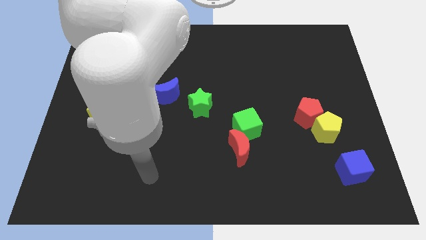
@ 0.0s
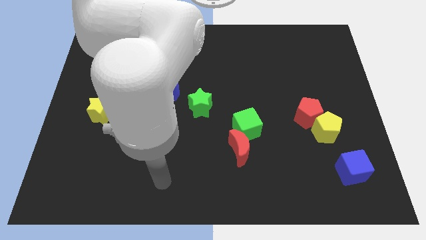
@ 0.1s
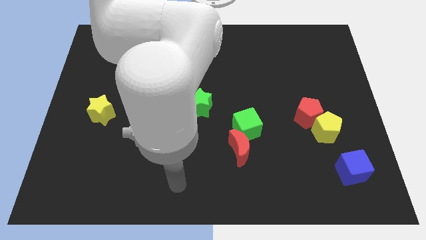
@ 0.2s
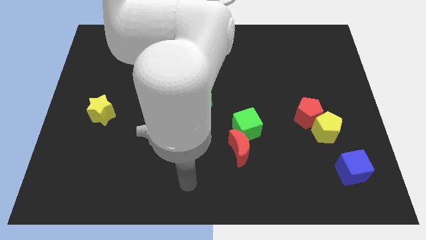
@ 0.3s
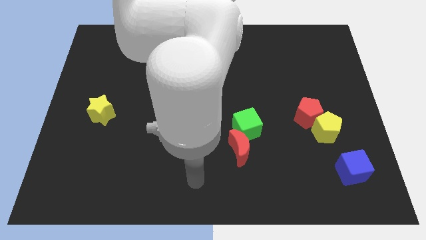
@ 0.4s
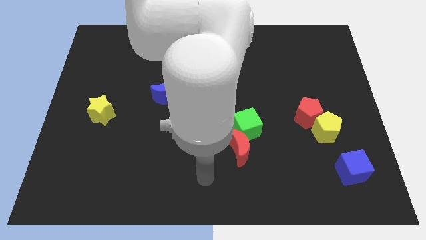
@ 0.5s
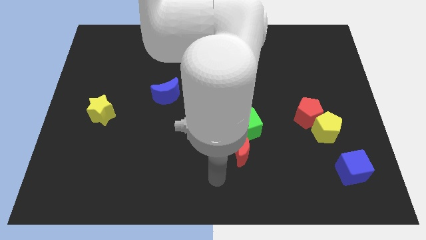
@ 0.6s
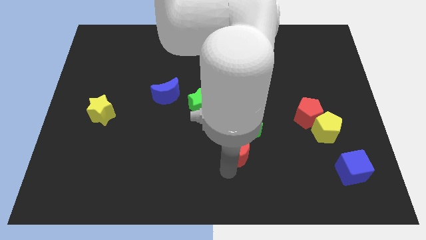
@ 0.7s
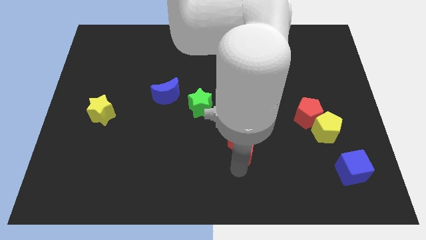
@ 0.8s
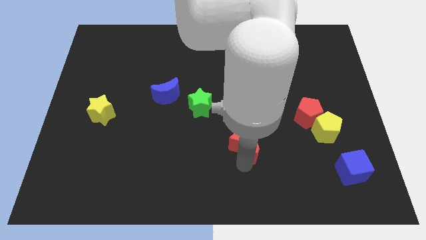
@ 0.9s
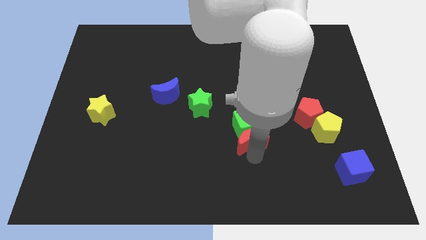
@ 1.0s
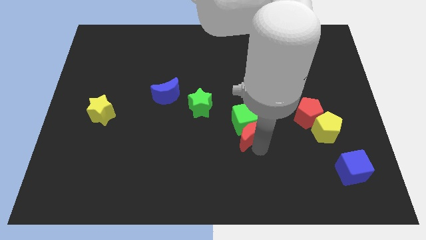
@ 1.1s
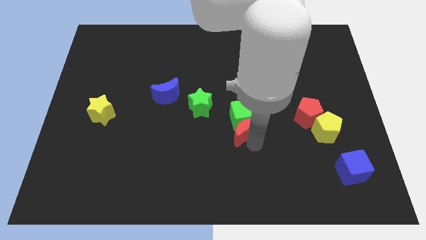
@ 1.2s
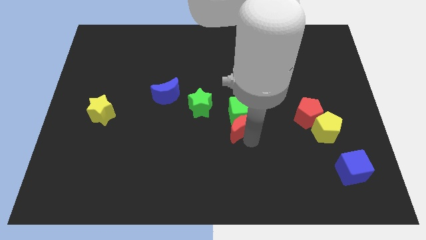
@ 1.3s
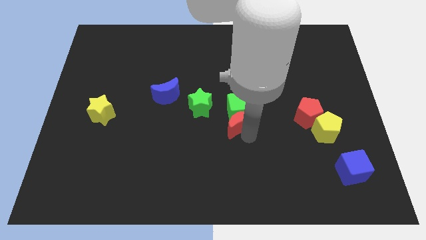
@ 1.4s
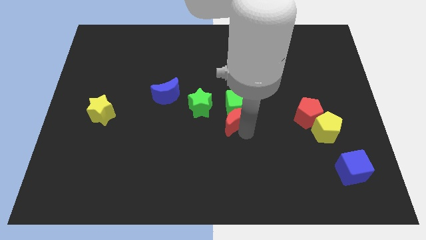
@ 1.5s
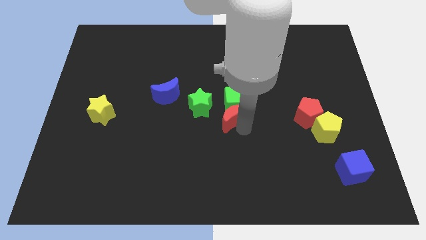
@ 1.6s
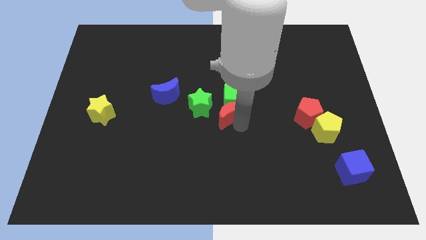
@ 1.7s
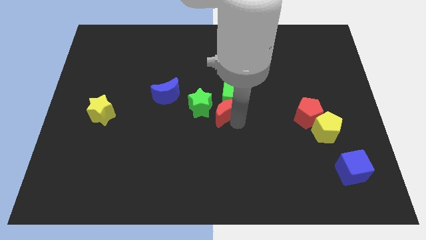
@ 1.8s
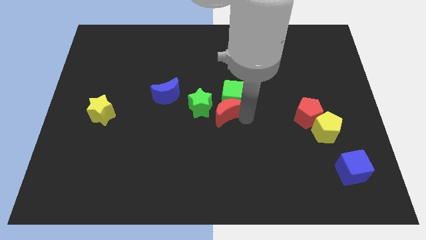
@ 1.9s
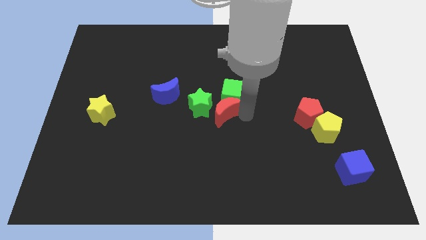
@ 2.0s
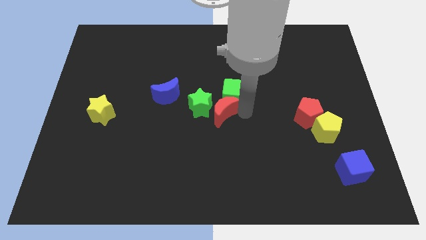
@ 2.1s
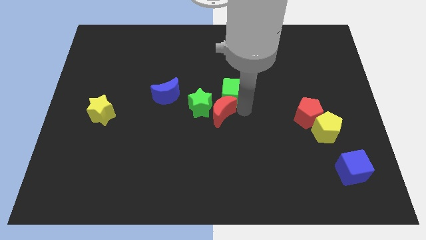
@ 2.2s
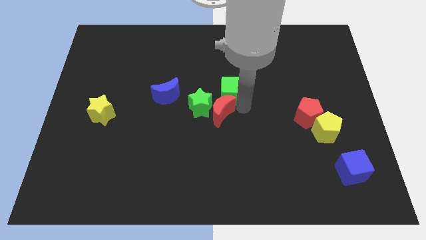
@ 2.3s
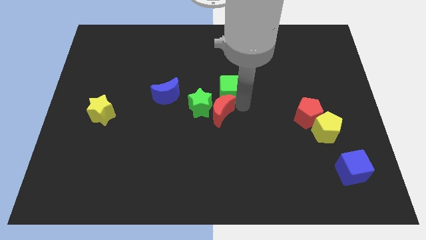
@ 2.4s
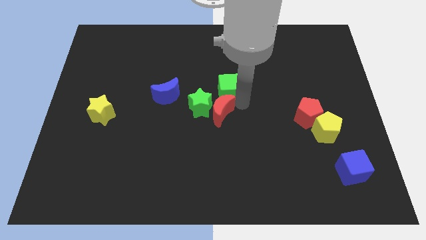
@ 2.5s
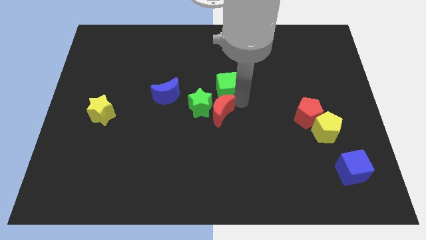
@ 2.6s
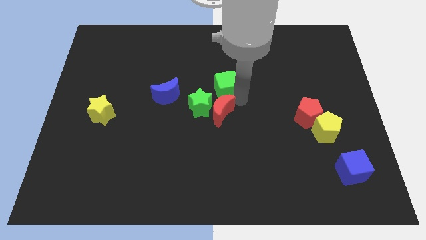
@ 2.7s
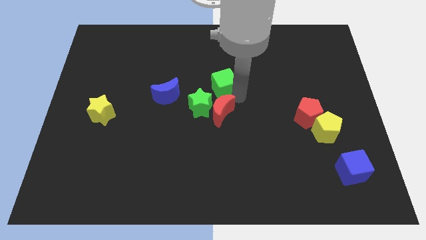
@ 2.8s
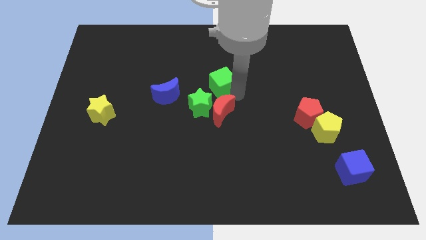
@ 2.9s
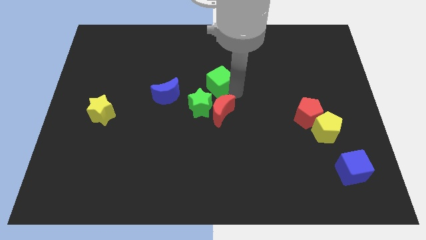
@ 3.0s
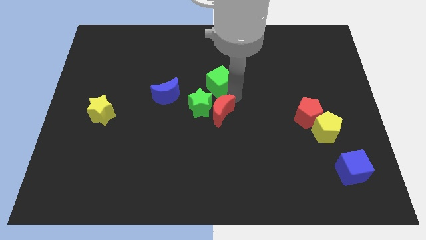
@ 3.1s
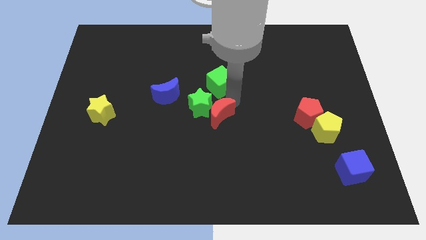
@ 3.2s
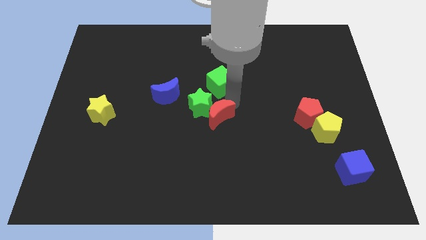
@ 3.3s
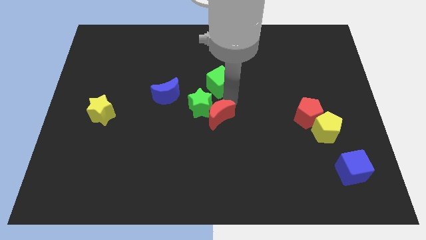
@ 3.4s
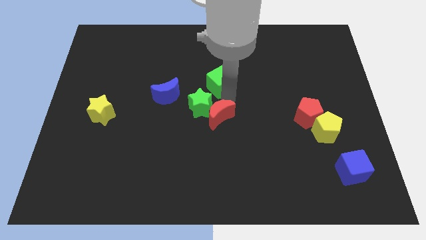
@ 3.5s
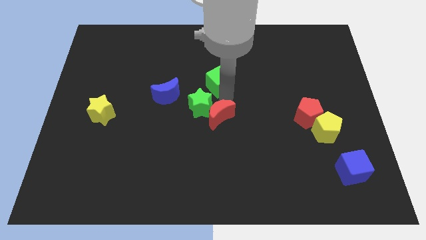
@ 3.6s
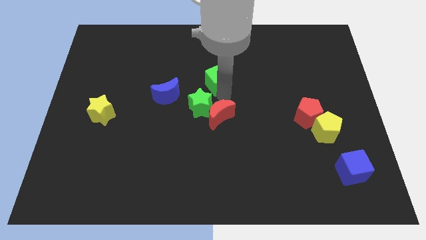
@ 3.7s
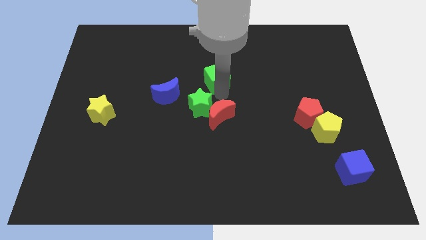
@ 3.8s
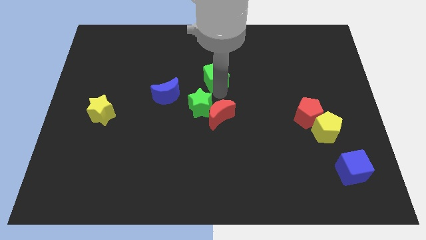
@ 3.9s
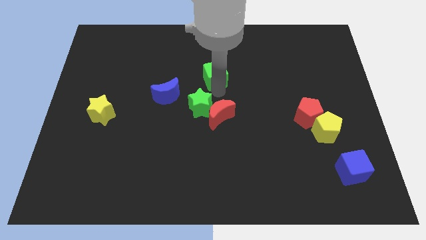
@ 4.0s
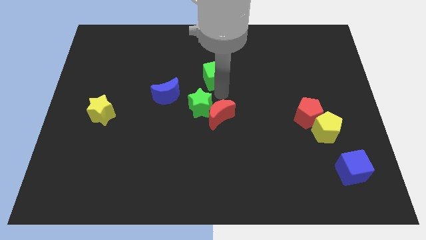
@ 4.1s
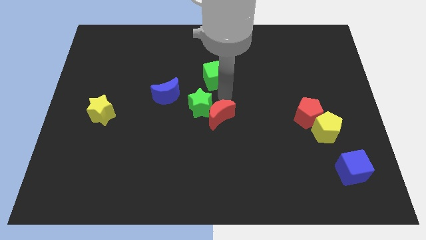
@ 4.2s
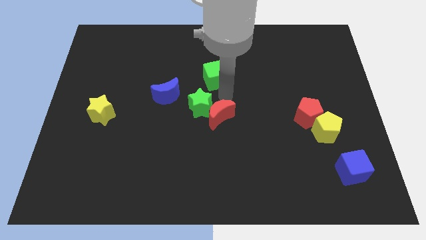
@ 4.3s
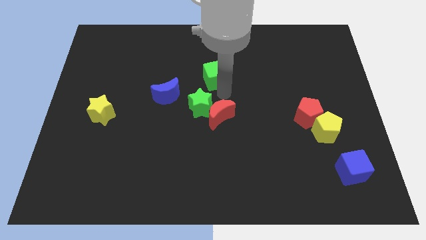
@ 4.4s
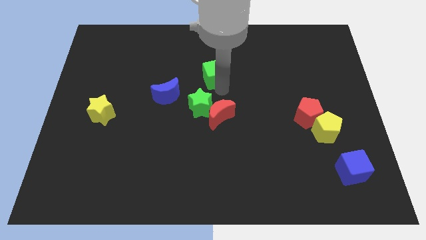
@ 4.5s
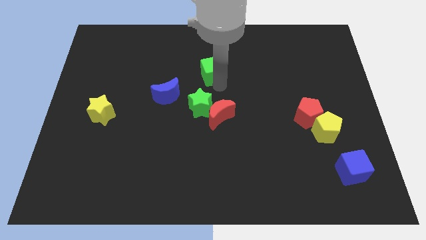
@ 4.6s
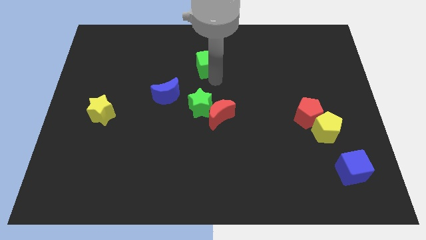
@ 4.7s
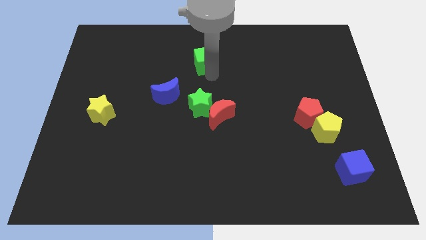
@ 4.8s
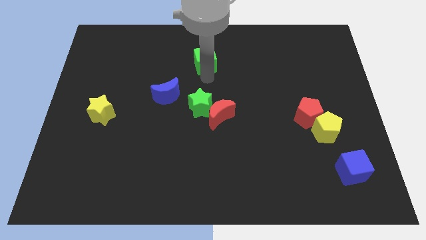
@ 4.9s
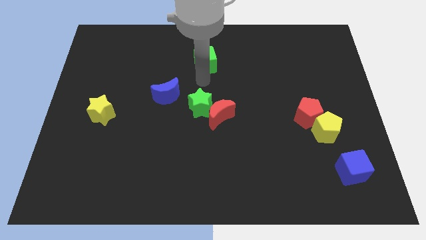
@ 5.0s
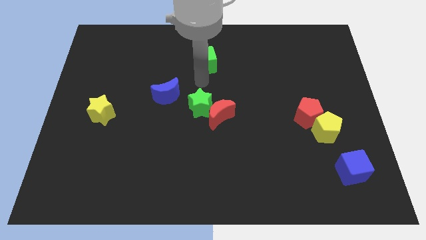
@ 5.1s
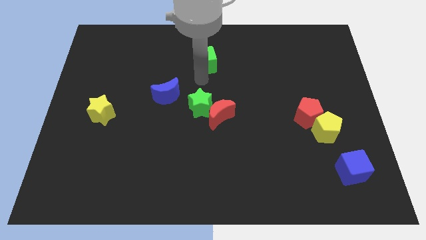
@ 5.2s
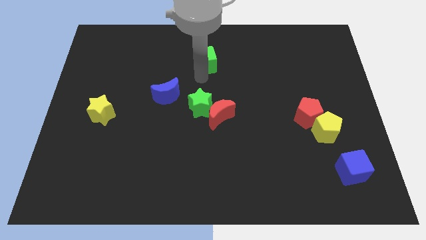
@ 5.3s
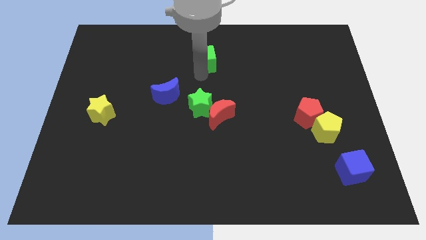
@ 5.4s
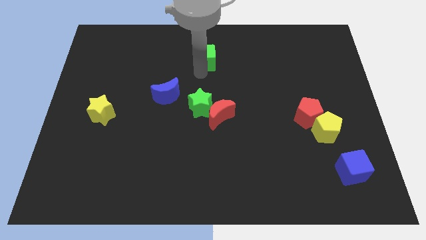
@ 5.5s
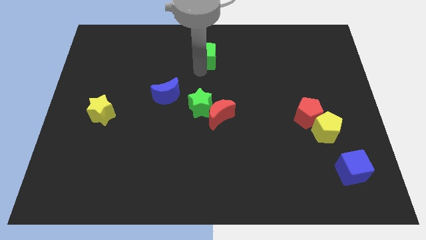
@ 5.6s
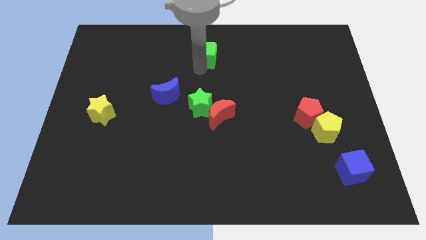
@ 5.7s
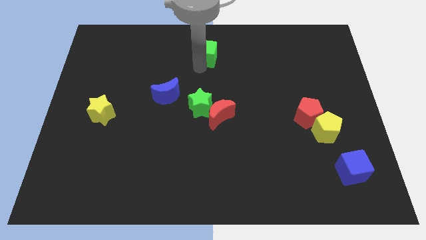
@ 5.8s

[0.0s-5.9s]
push the green cube to the towards your base

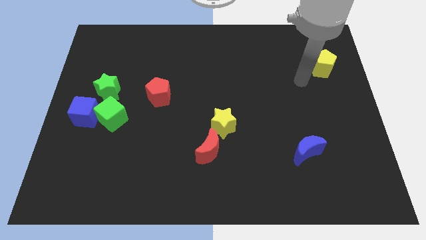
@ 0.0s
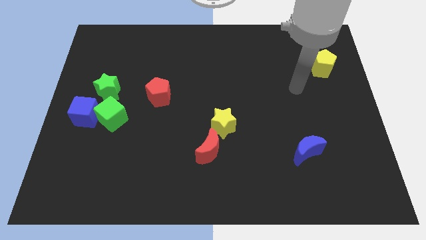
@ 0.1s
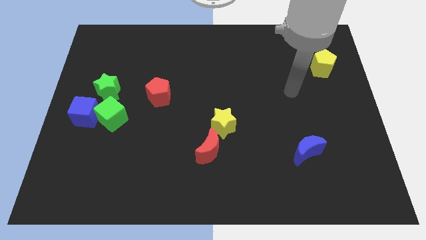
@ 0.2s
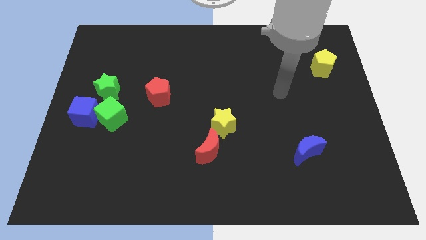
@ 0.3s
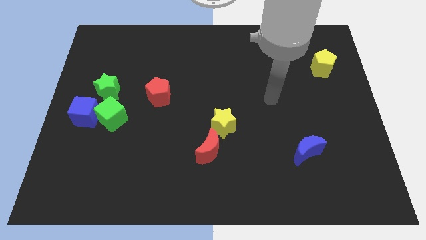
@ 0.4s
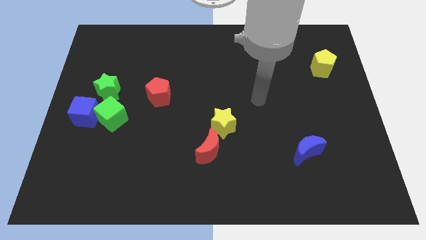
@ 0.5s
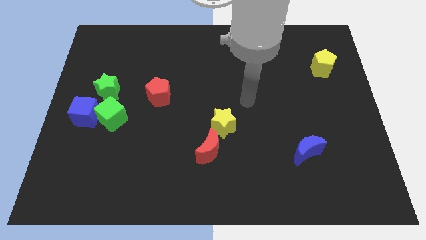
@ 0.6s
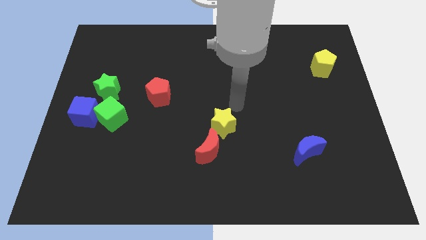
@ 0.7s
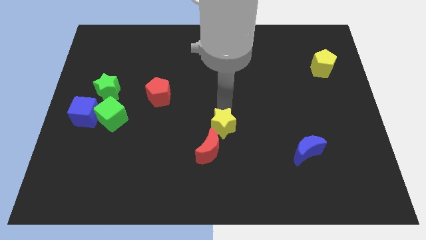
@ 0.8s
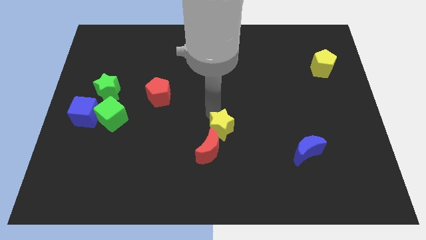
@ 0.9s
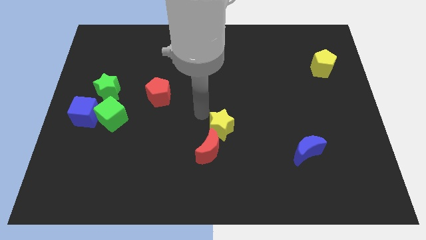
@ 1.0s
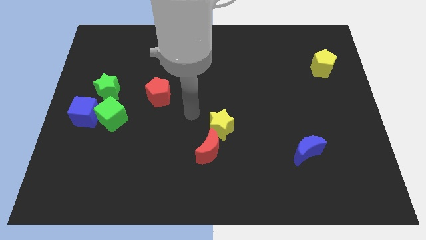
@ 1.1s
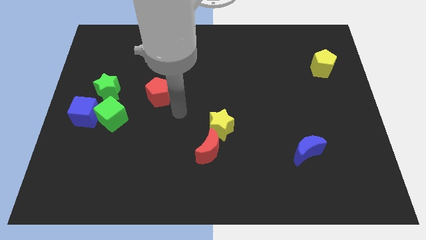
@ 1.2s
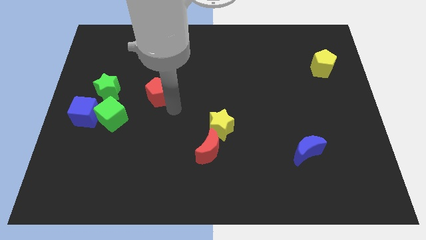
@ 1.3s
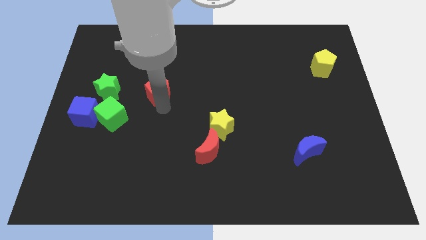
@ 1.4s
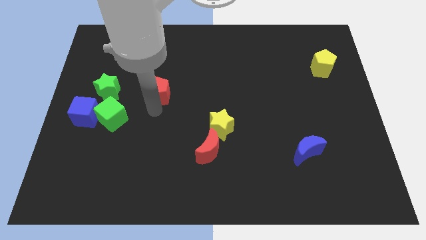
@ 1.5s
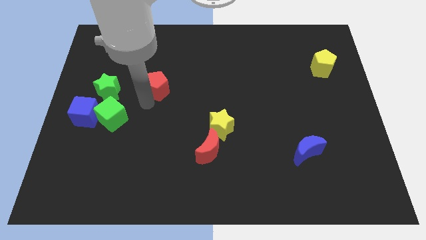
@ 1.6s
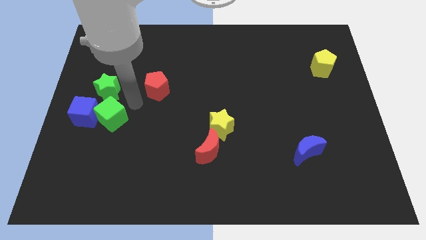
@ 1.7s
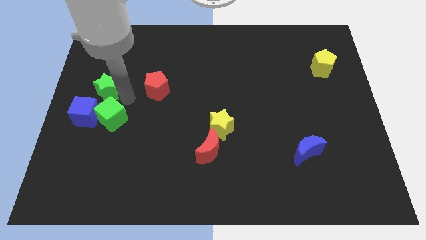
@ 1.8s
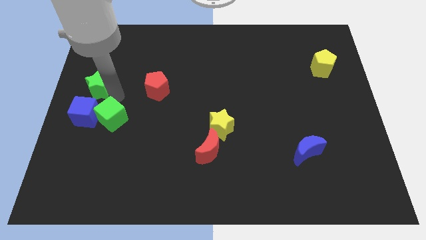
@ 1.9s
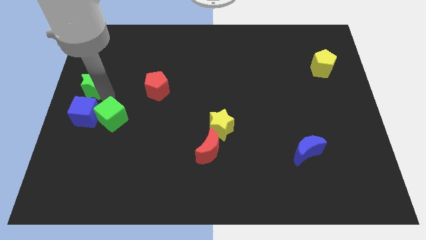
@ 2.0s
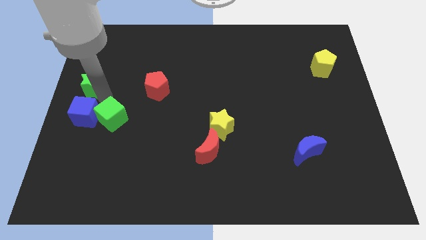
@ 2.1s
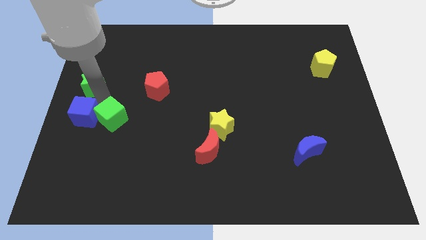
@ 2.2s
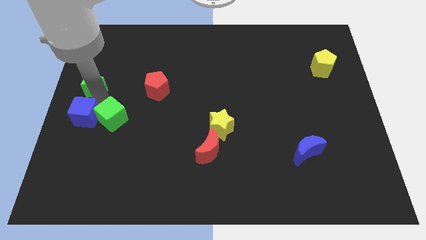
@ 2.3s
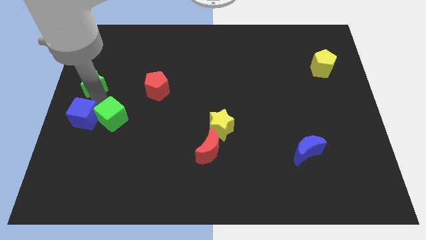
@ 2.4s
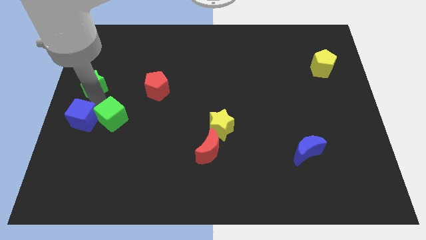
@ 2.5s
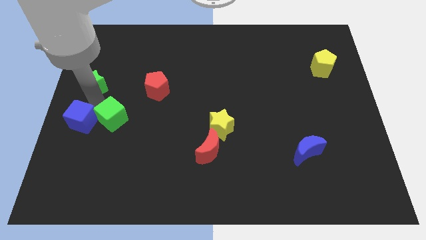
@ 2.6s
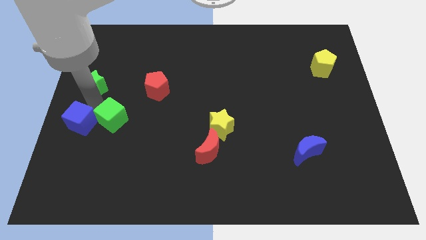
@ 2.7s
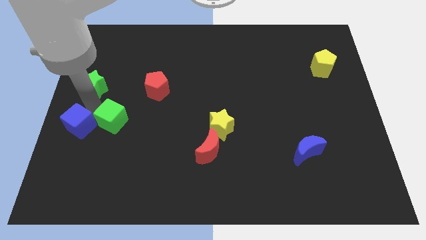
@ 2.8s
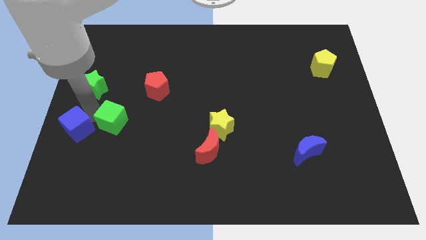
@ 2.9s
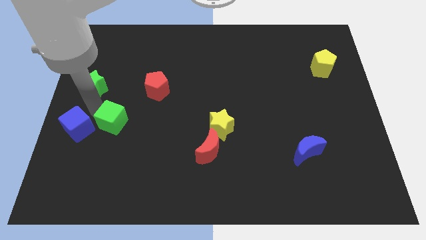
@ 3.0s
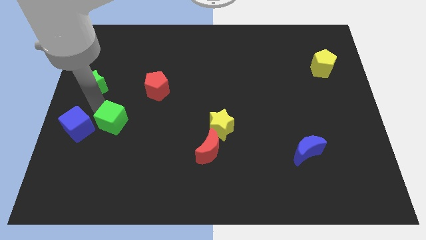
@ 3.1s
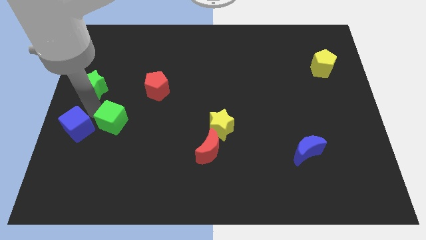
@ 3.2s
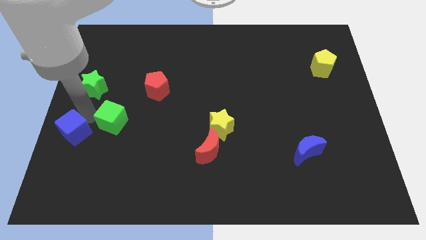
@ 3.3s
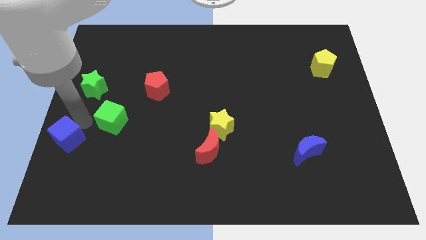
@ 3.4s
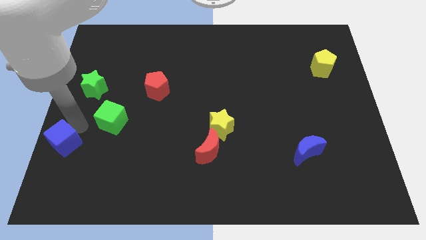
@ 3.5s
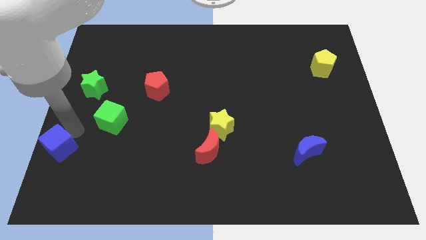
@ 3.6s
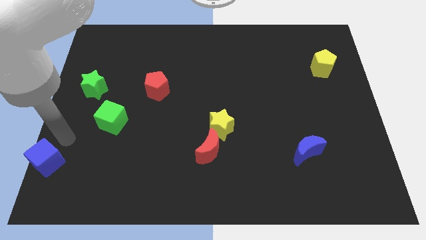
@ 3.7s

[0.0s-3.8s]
move the blue cube to the bottom left of the board
